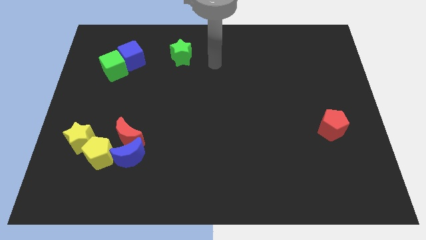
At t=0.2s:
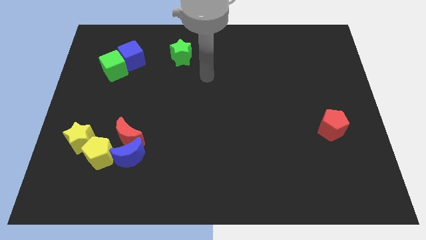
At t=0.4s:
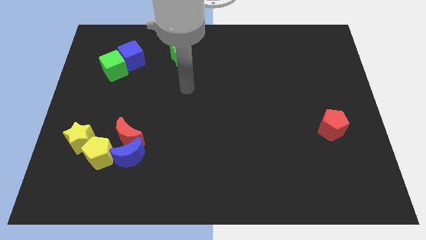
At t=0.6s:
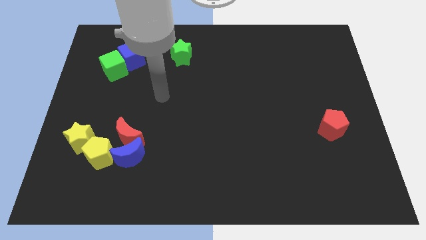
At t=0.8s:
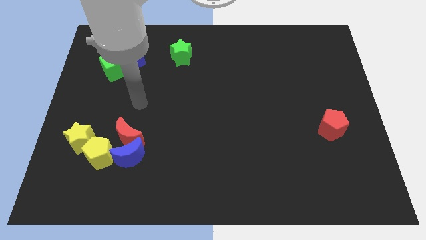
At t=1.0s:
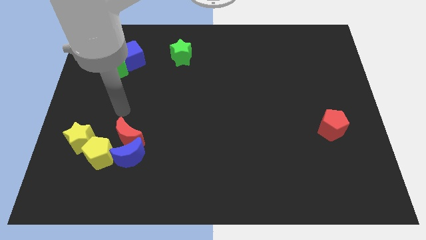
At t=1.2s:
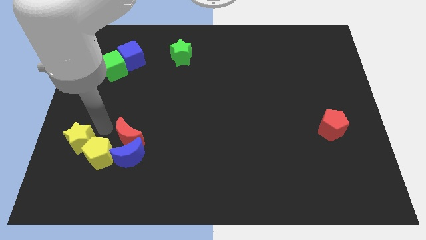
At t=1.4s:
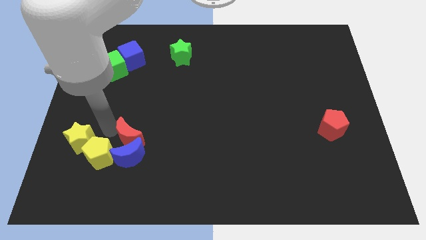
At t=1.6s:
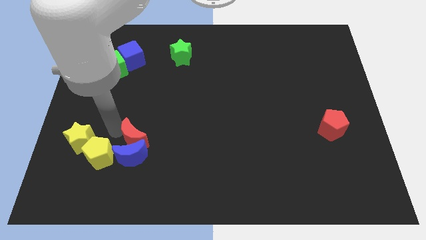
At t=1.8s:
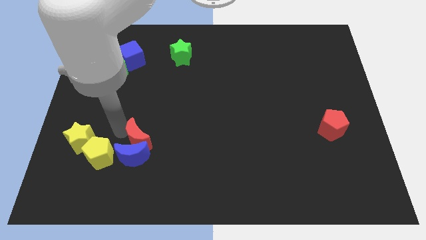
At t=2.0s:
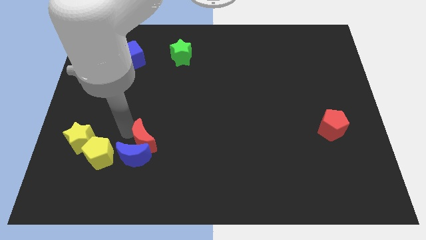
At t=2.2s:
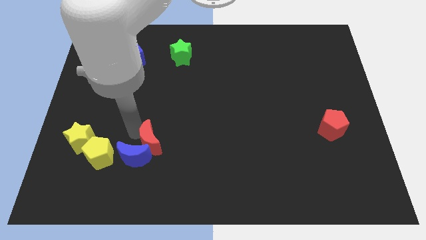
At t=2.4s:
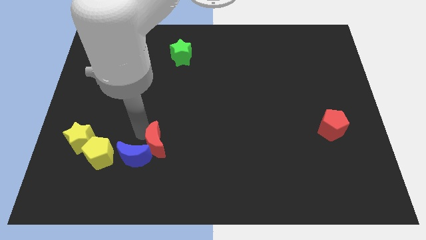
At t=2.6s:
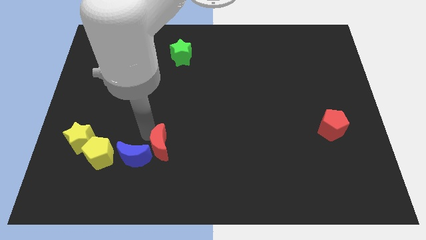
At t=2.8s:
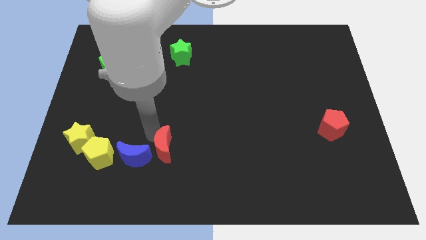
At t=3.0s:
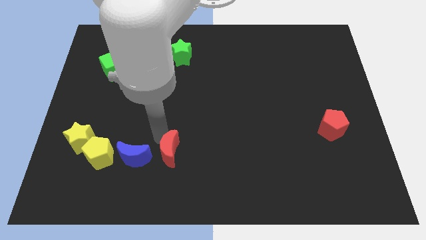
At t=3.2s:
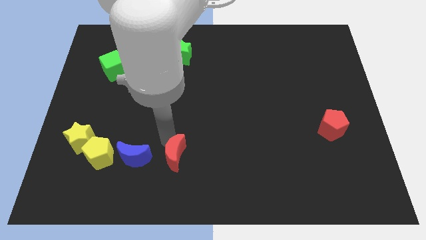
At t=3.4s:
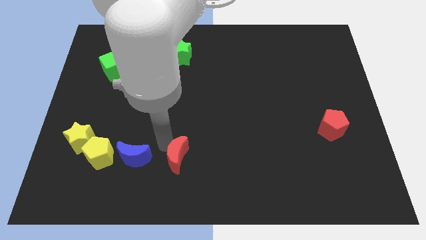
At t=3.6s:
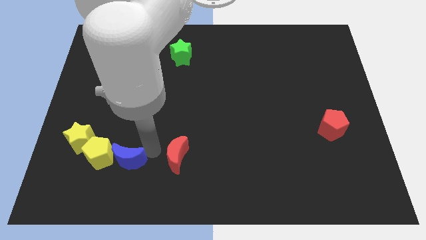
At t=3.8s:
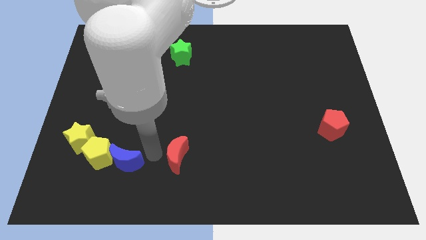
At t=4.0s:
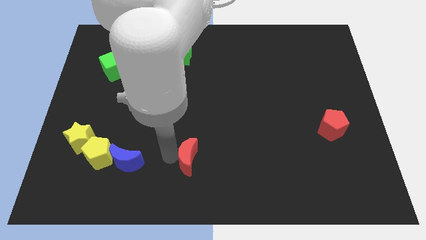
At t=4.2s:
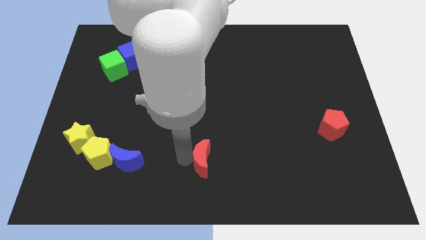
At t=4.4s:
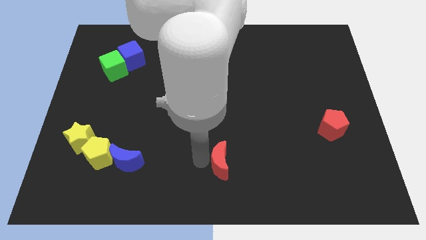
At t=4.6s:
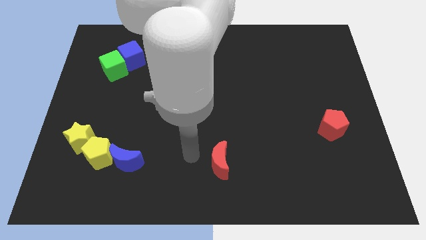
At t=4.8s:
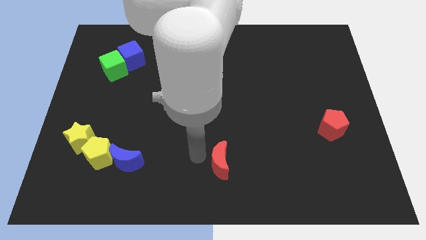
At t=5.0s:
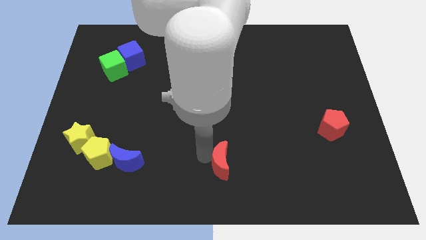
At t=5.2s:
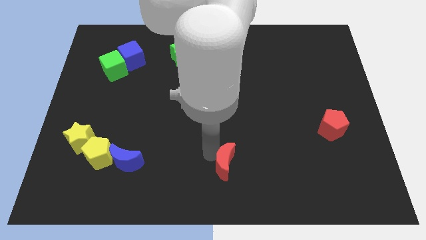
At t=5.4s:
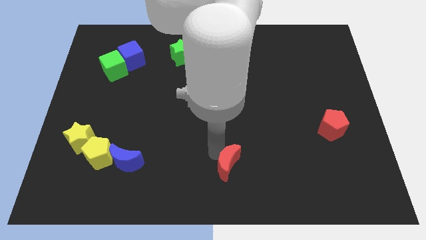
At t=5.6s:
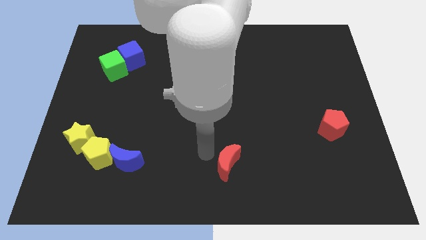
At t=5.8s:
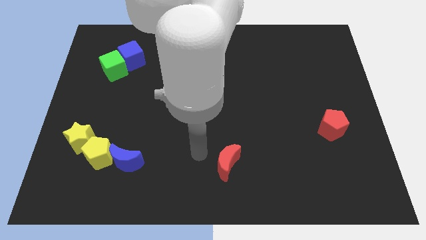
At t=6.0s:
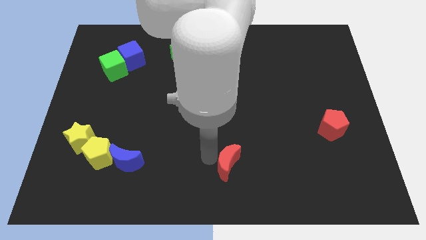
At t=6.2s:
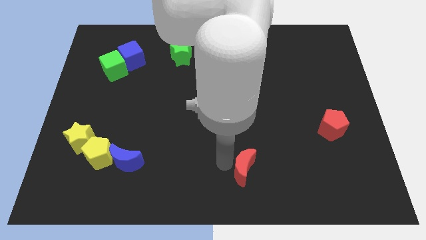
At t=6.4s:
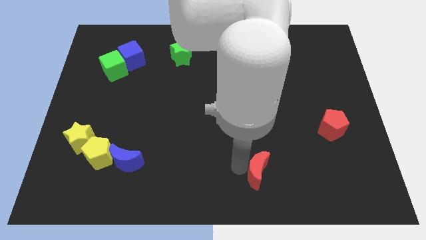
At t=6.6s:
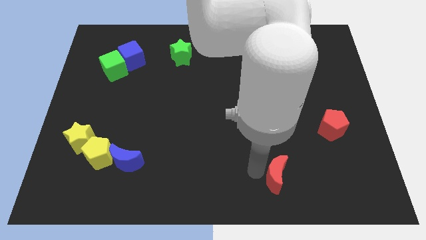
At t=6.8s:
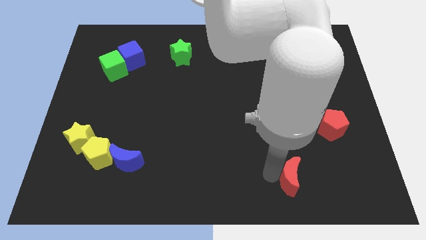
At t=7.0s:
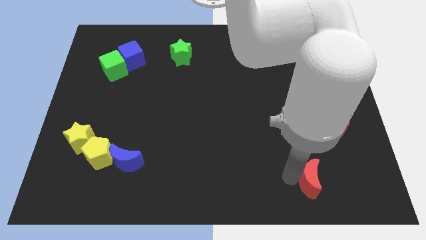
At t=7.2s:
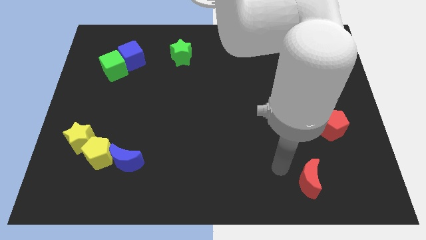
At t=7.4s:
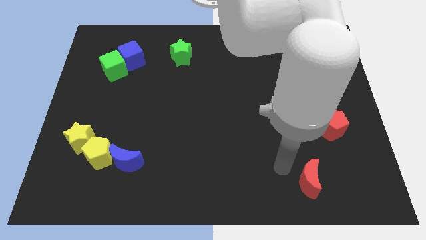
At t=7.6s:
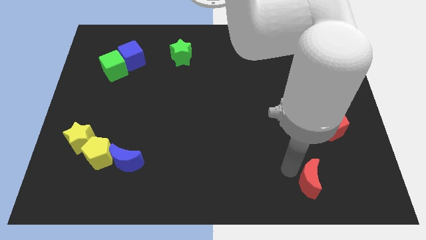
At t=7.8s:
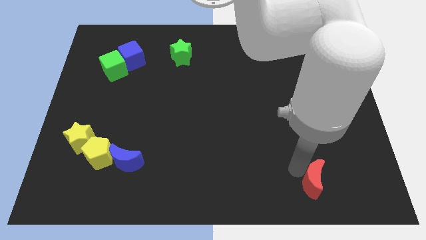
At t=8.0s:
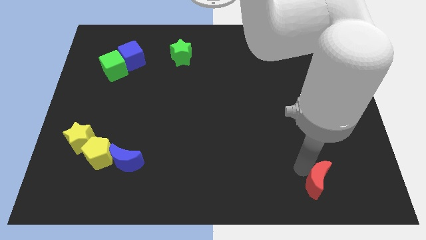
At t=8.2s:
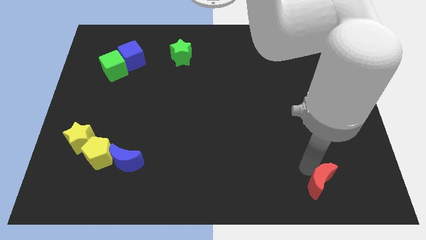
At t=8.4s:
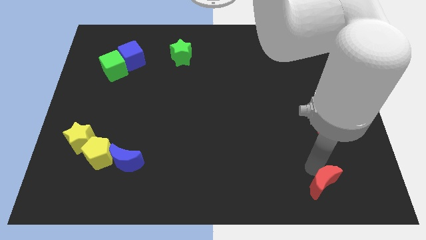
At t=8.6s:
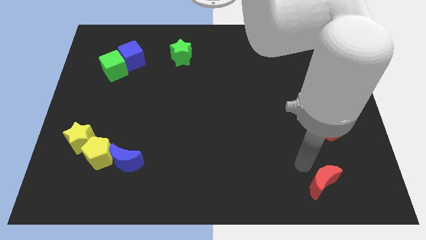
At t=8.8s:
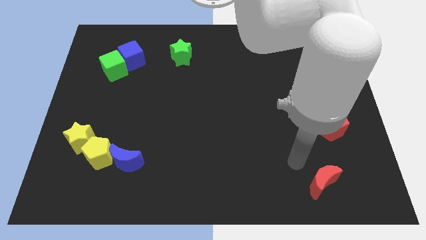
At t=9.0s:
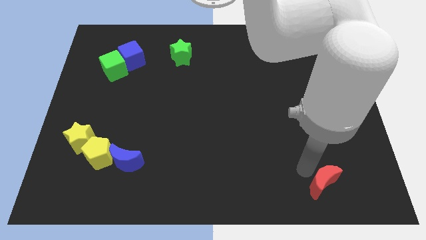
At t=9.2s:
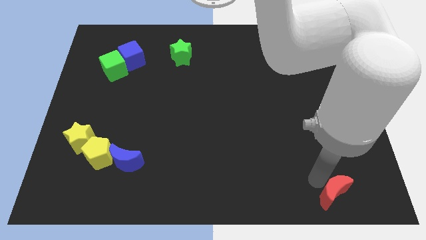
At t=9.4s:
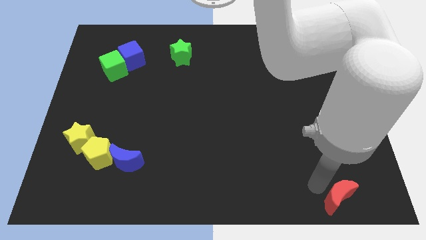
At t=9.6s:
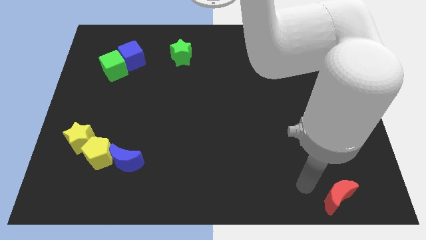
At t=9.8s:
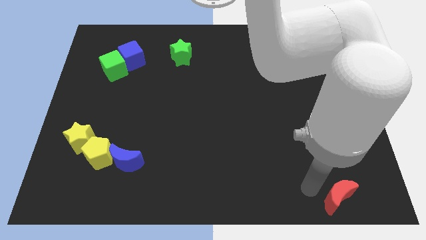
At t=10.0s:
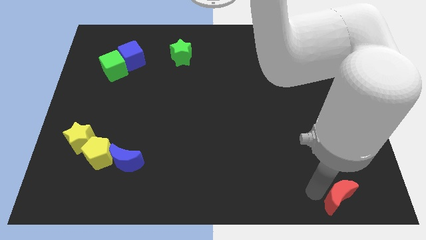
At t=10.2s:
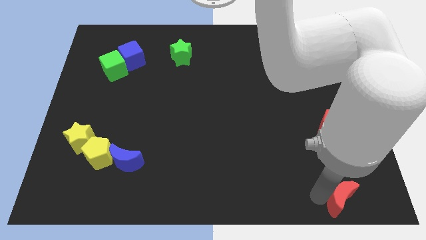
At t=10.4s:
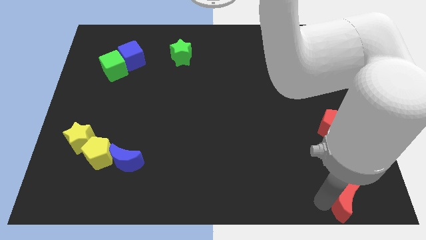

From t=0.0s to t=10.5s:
slide the red moon to the bottom right of the board
